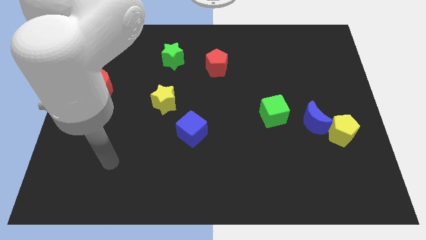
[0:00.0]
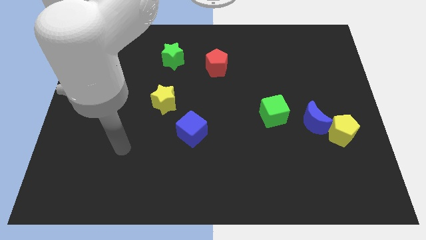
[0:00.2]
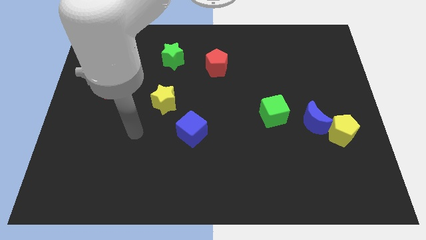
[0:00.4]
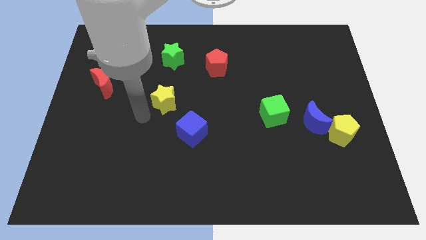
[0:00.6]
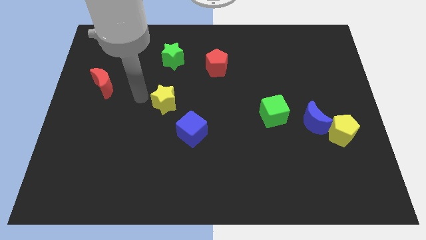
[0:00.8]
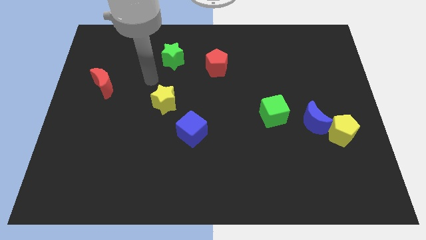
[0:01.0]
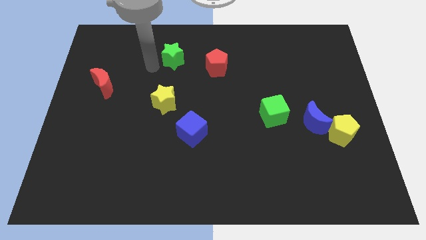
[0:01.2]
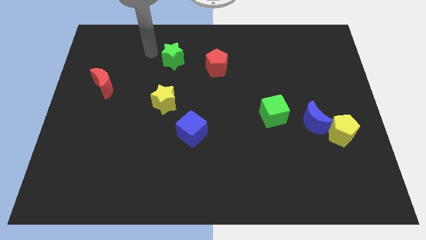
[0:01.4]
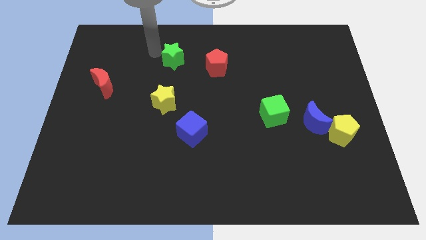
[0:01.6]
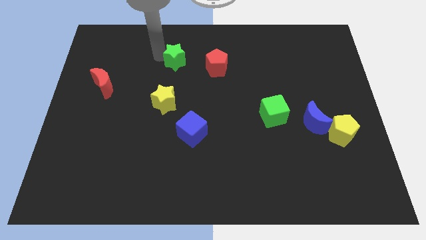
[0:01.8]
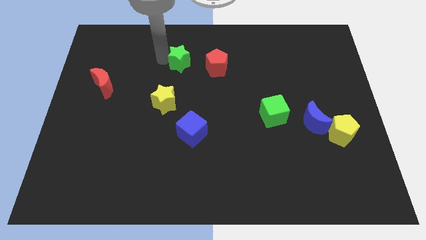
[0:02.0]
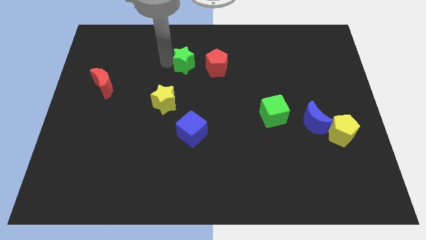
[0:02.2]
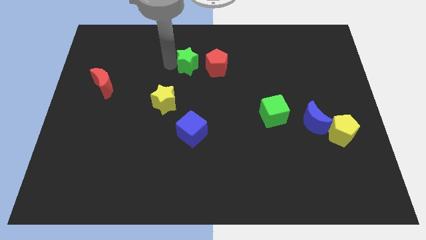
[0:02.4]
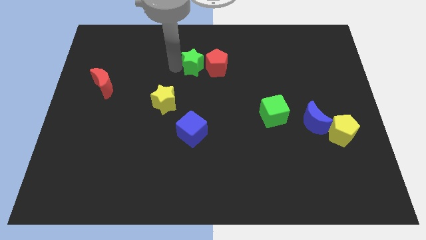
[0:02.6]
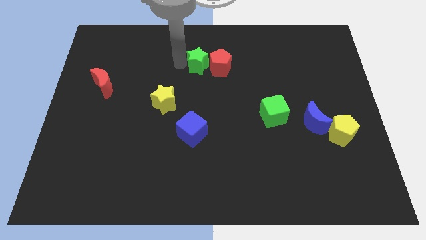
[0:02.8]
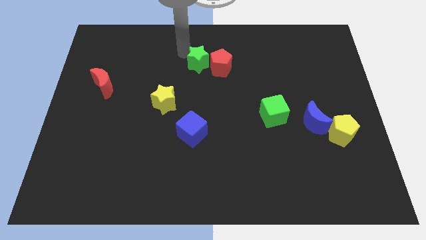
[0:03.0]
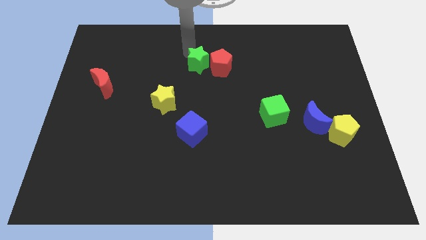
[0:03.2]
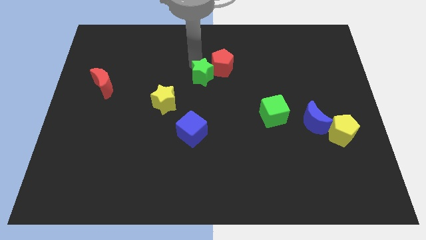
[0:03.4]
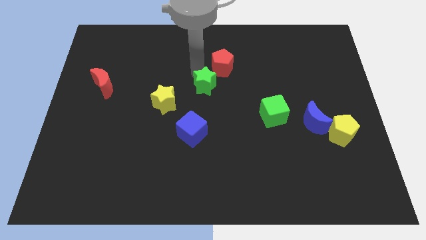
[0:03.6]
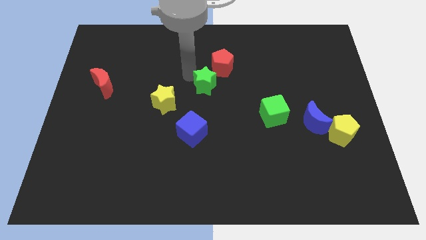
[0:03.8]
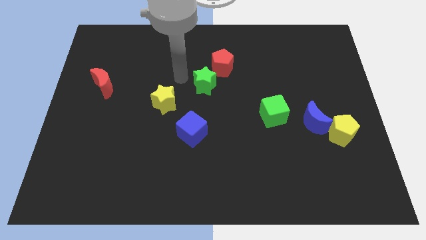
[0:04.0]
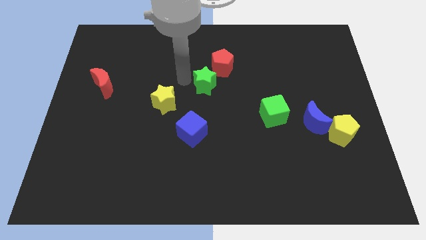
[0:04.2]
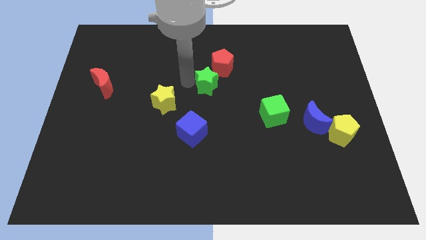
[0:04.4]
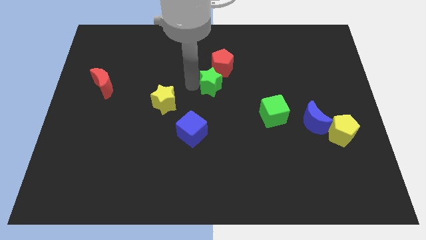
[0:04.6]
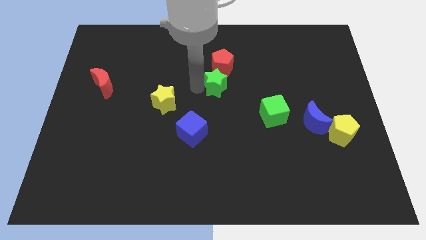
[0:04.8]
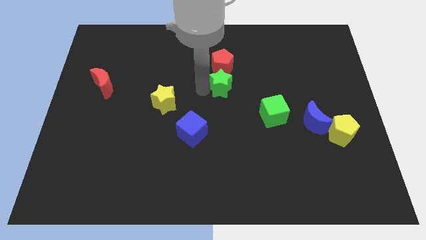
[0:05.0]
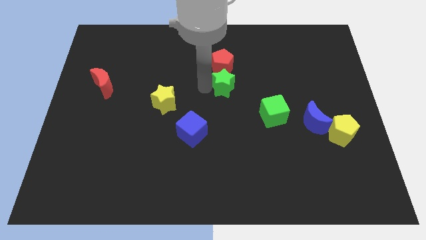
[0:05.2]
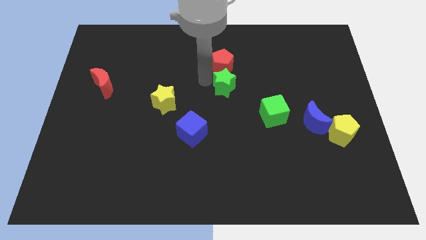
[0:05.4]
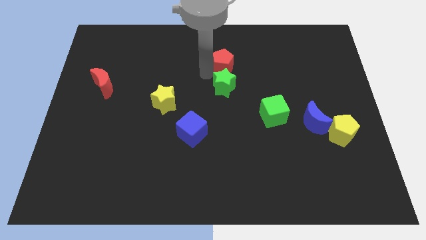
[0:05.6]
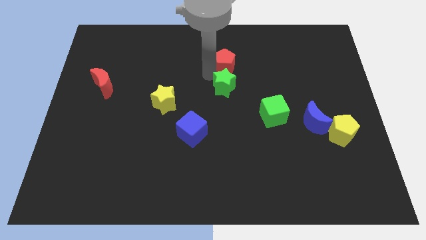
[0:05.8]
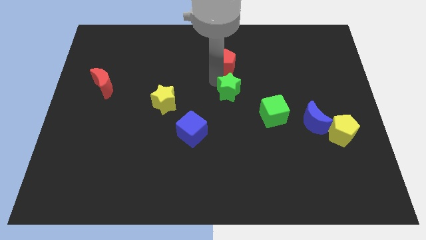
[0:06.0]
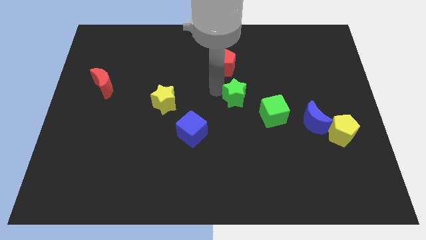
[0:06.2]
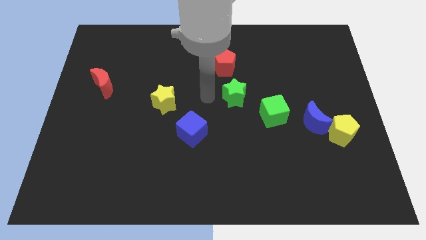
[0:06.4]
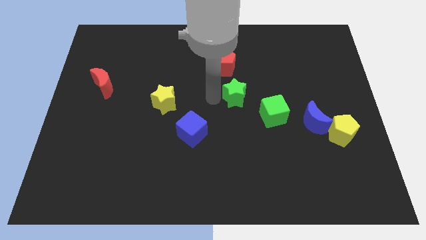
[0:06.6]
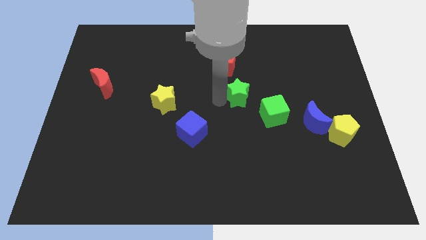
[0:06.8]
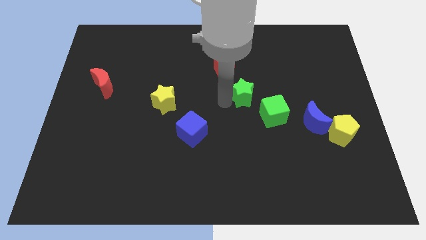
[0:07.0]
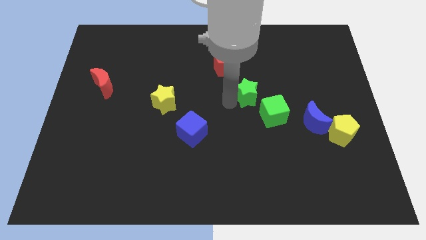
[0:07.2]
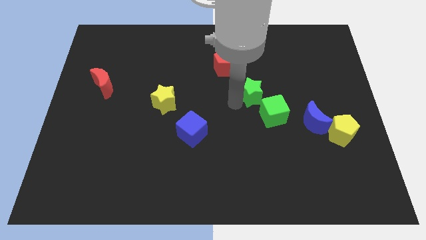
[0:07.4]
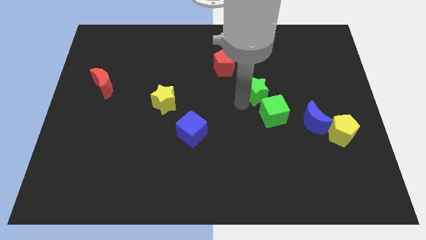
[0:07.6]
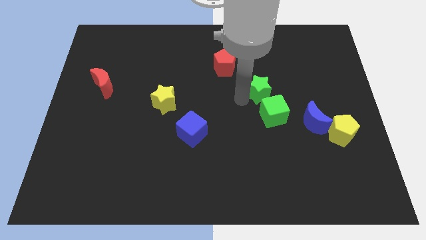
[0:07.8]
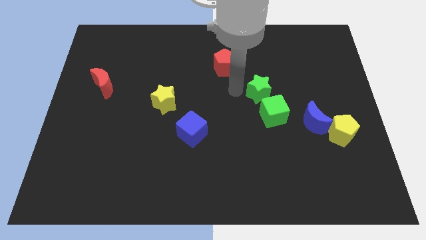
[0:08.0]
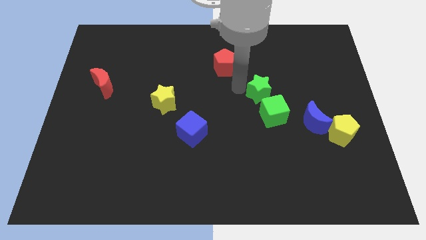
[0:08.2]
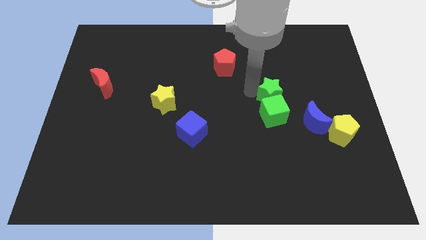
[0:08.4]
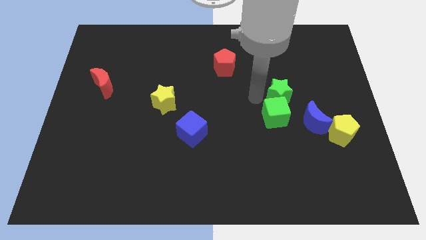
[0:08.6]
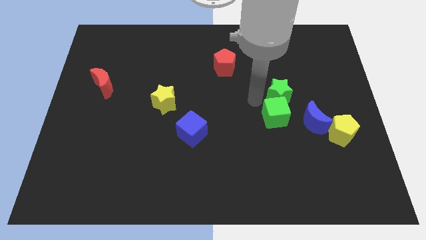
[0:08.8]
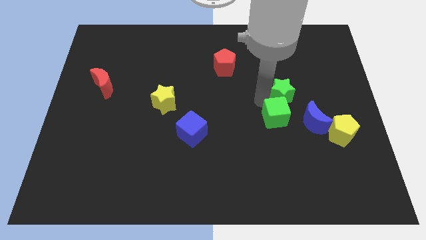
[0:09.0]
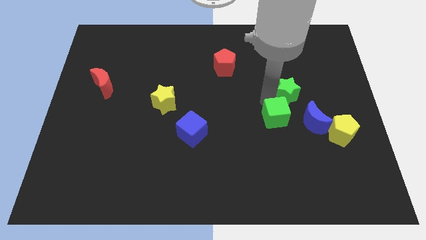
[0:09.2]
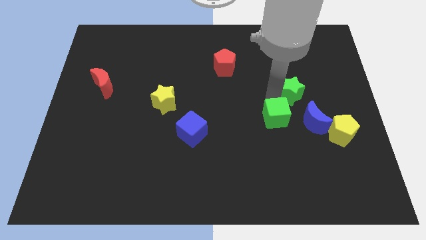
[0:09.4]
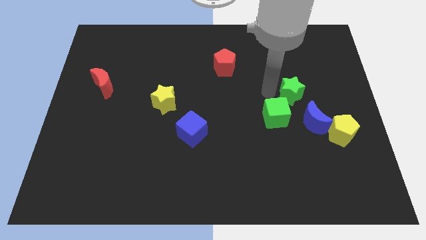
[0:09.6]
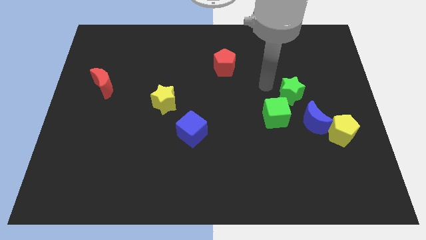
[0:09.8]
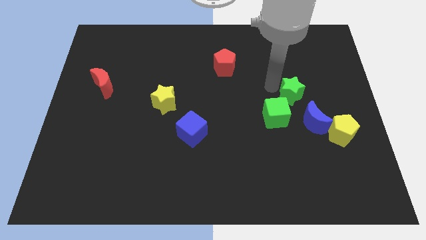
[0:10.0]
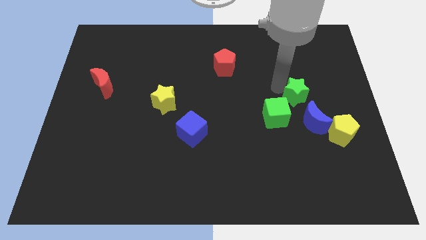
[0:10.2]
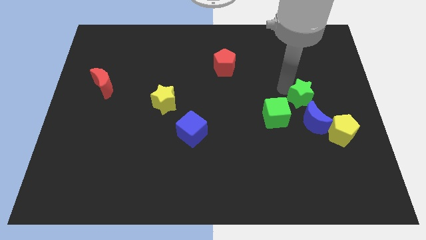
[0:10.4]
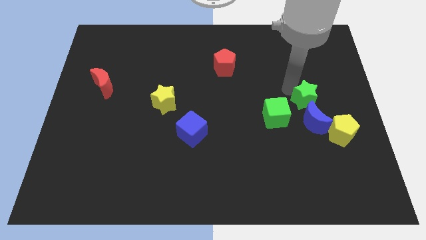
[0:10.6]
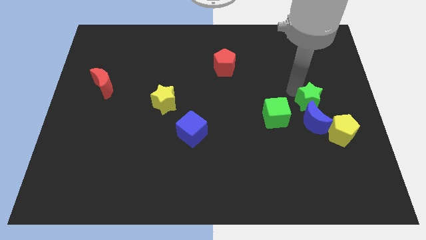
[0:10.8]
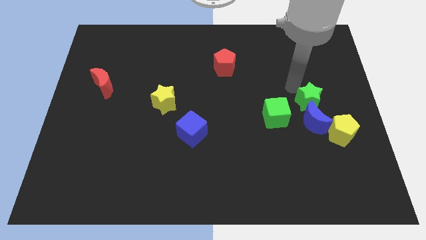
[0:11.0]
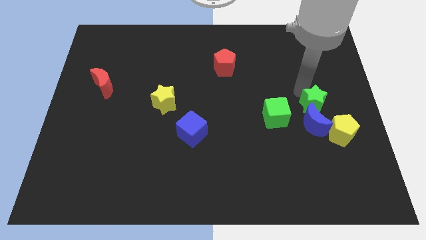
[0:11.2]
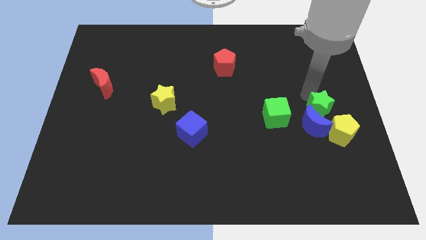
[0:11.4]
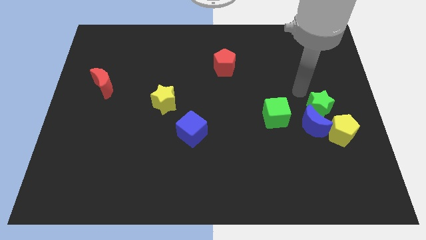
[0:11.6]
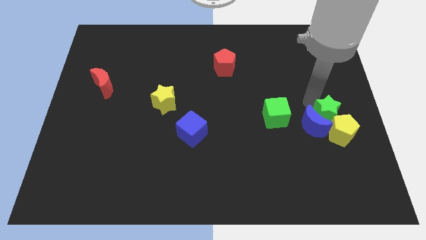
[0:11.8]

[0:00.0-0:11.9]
slide the green star towards the yellow pentagon
